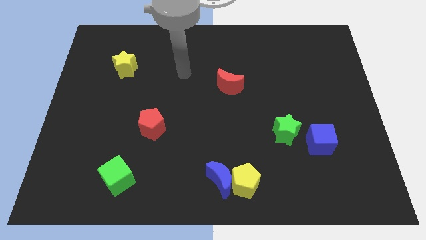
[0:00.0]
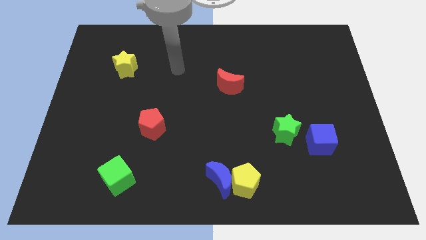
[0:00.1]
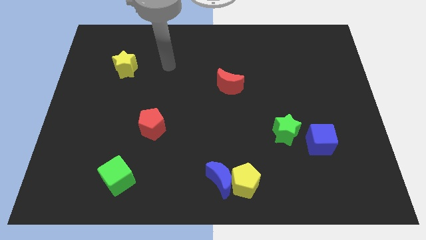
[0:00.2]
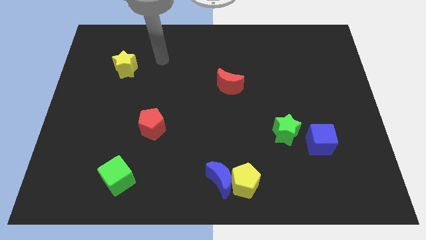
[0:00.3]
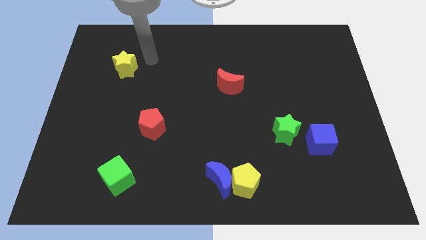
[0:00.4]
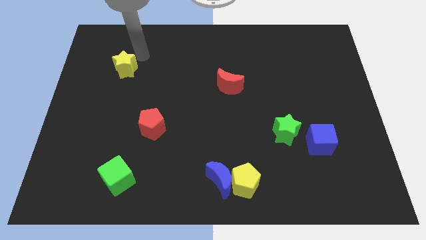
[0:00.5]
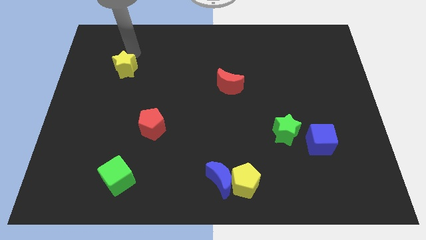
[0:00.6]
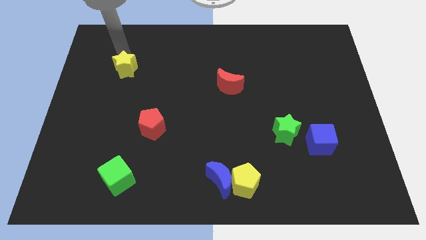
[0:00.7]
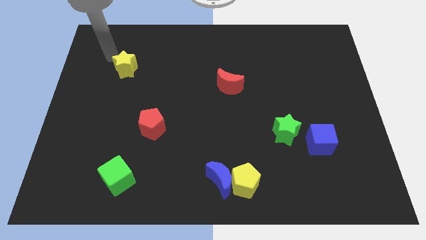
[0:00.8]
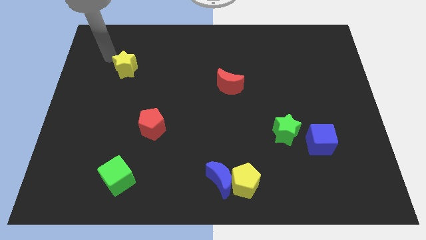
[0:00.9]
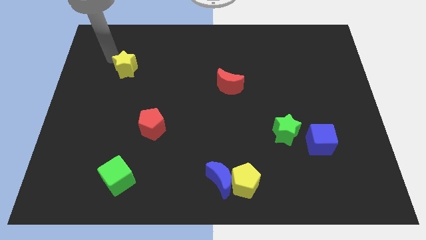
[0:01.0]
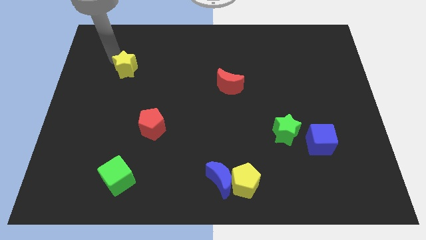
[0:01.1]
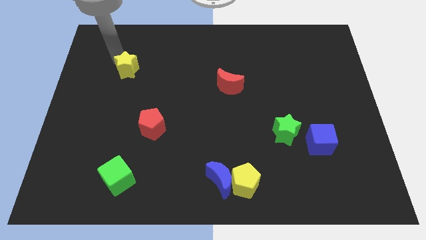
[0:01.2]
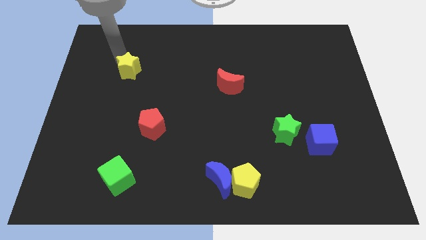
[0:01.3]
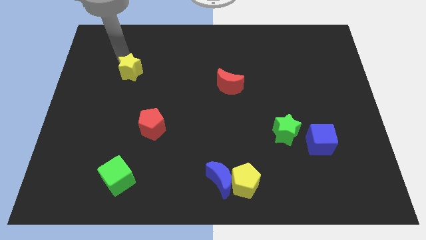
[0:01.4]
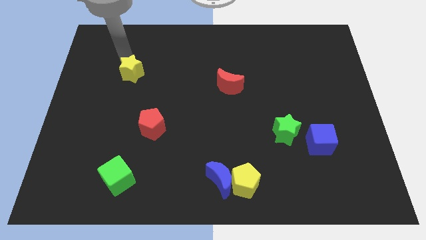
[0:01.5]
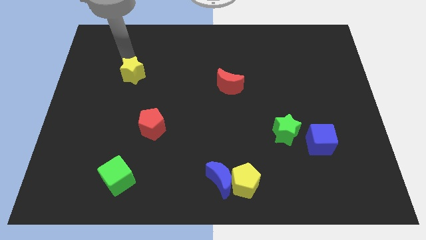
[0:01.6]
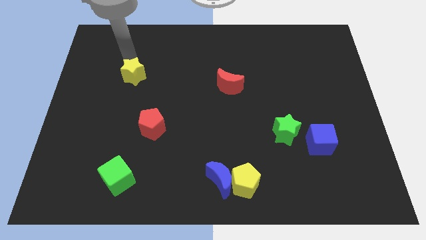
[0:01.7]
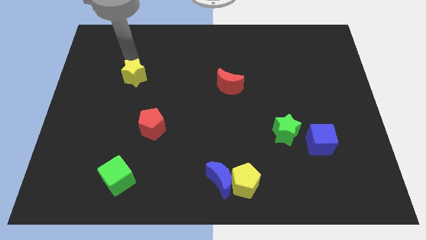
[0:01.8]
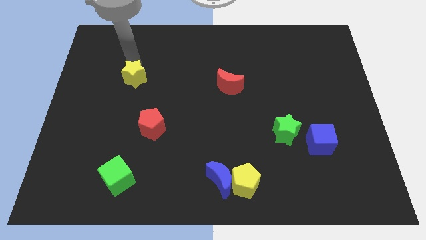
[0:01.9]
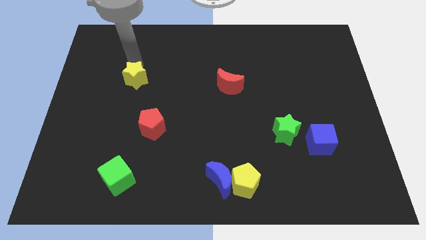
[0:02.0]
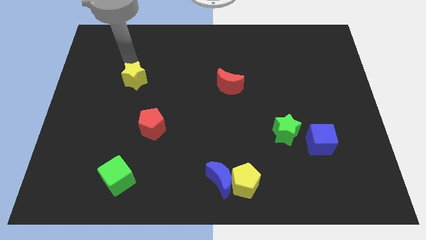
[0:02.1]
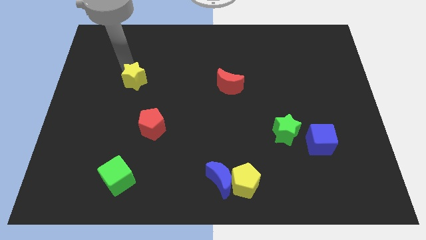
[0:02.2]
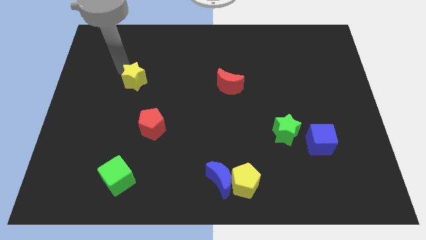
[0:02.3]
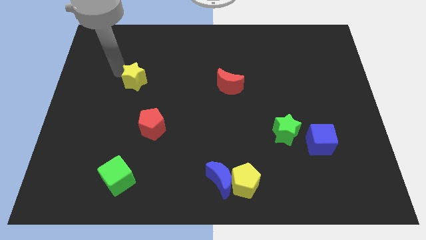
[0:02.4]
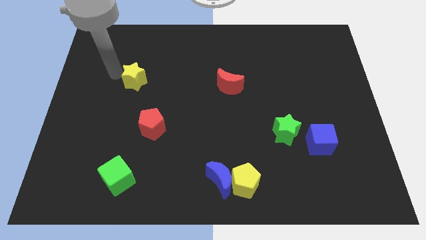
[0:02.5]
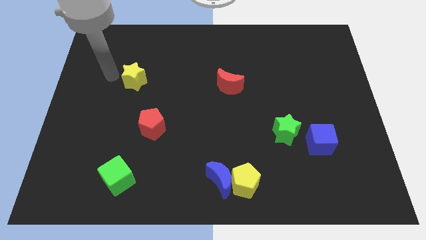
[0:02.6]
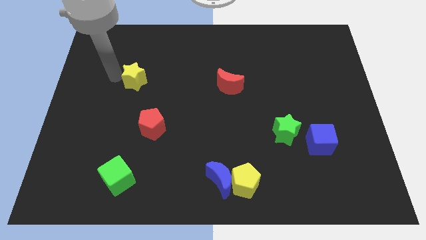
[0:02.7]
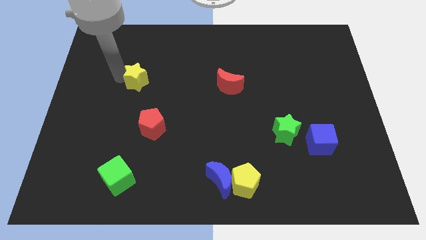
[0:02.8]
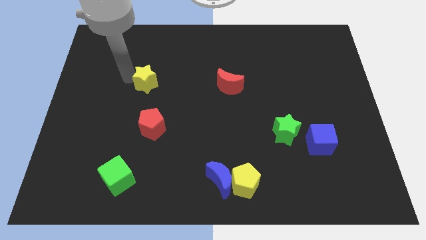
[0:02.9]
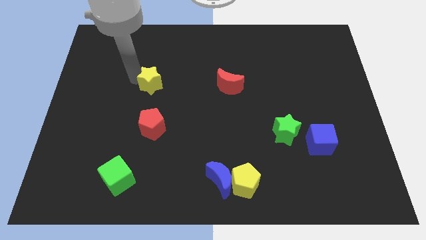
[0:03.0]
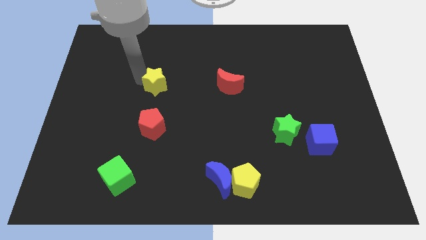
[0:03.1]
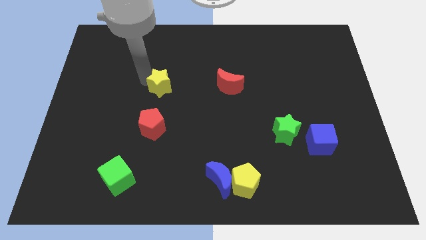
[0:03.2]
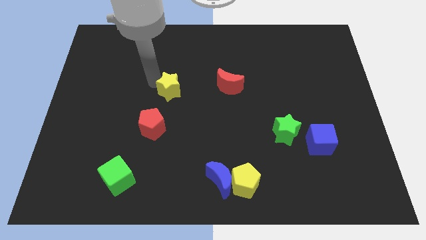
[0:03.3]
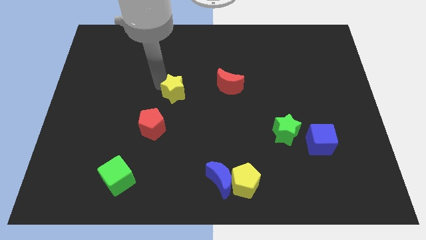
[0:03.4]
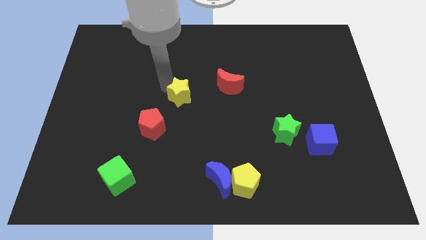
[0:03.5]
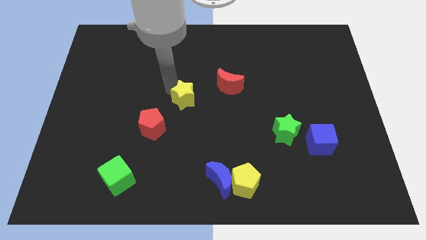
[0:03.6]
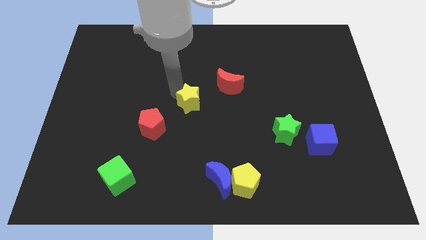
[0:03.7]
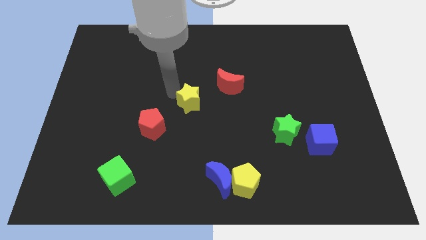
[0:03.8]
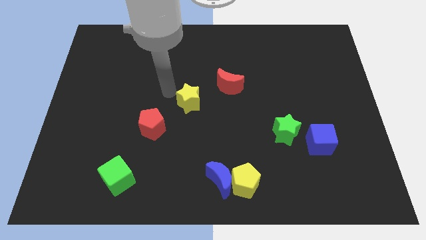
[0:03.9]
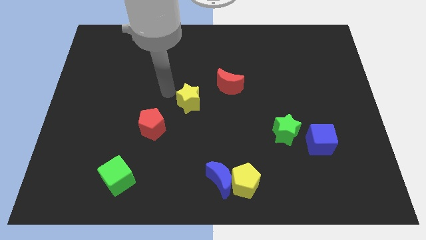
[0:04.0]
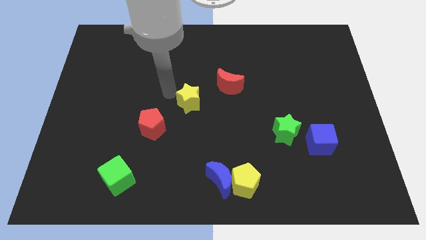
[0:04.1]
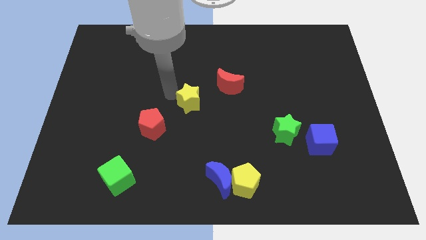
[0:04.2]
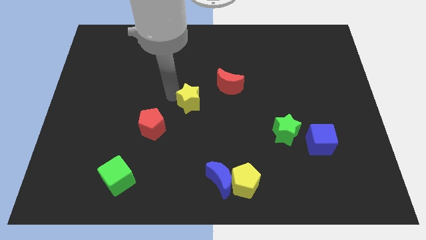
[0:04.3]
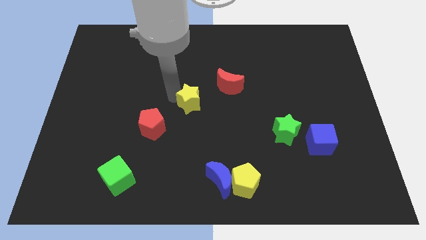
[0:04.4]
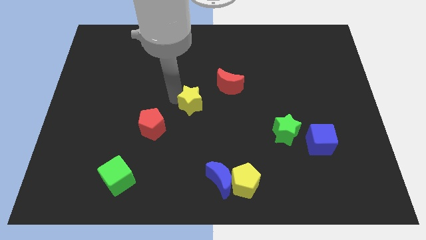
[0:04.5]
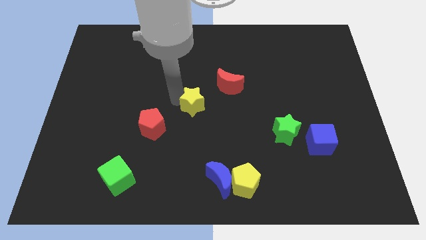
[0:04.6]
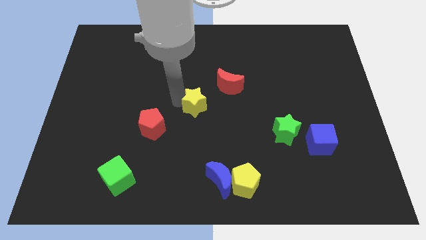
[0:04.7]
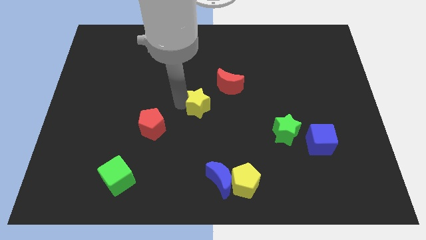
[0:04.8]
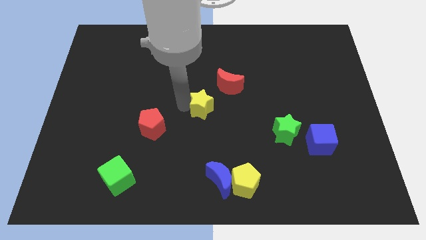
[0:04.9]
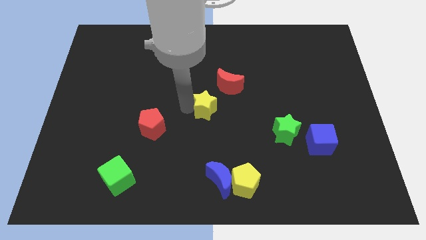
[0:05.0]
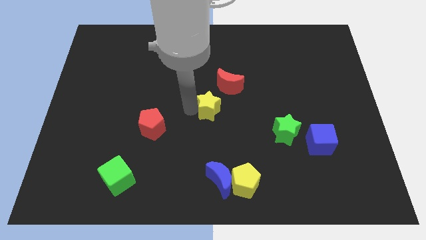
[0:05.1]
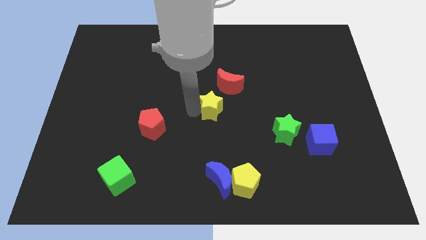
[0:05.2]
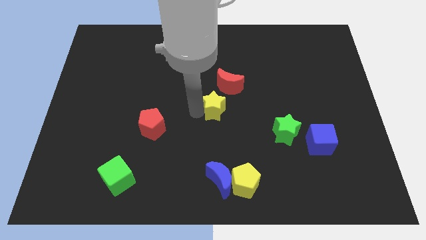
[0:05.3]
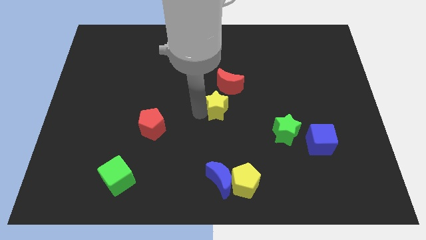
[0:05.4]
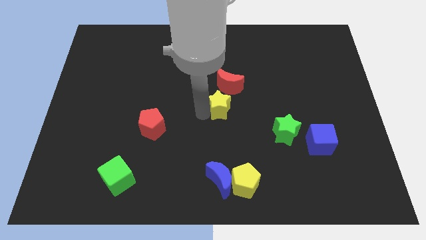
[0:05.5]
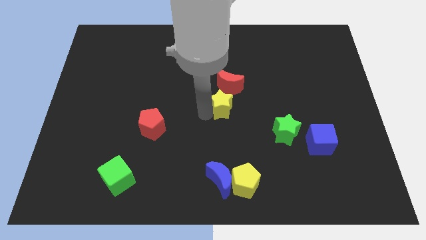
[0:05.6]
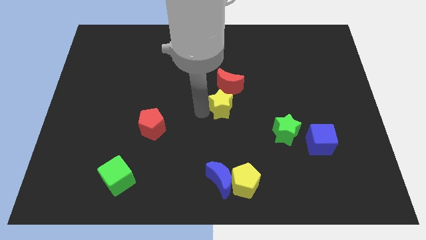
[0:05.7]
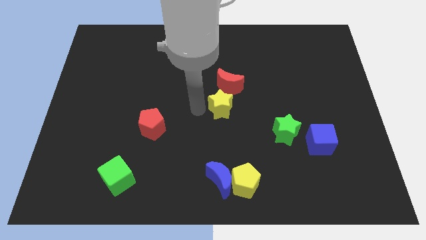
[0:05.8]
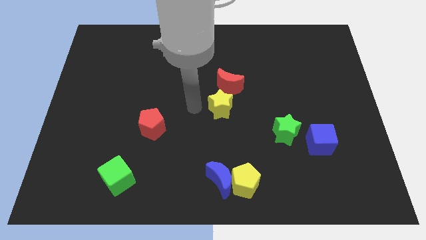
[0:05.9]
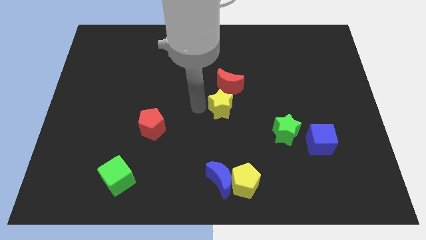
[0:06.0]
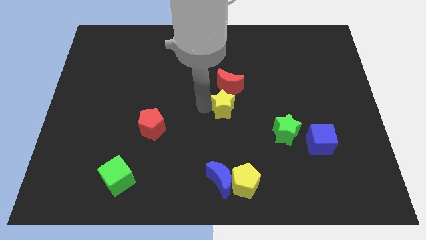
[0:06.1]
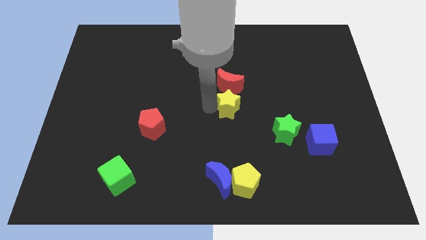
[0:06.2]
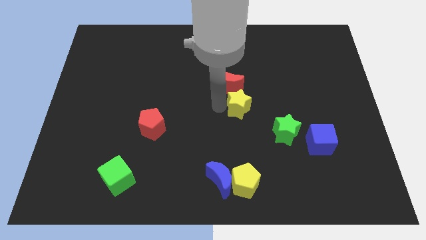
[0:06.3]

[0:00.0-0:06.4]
slide the yellow star to the top left of the green star
